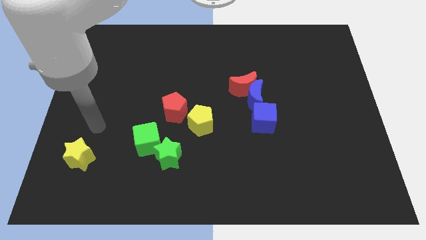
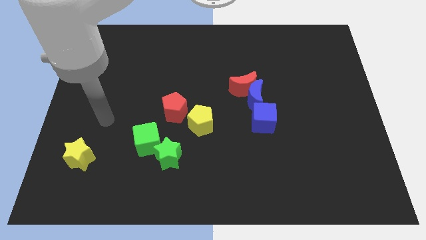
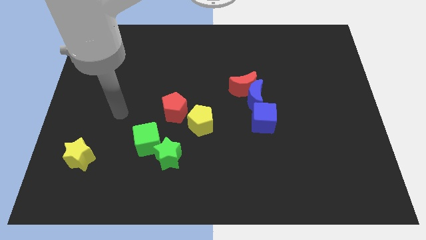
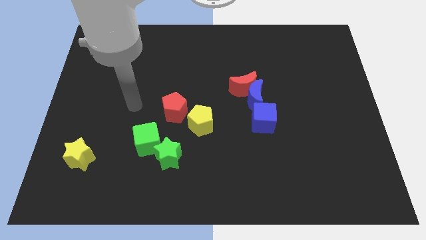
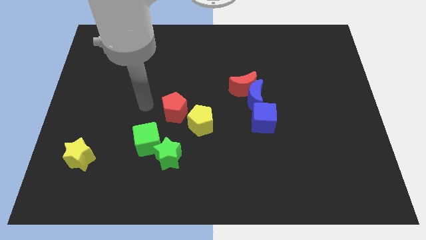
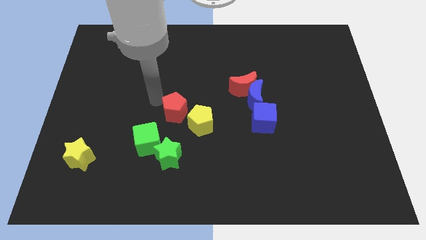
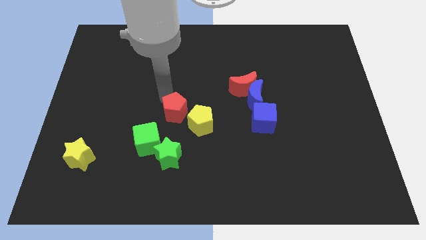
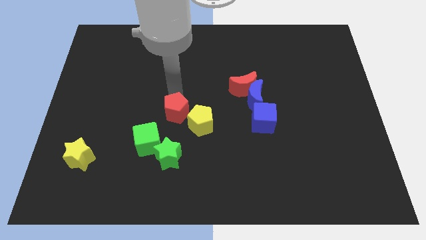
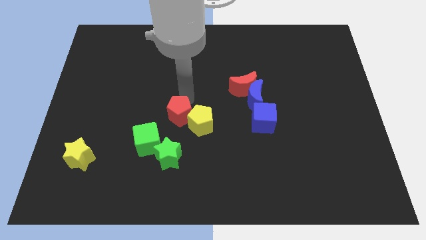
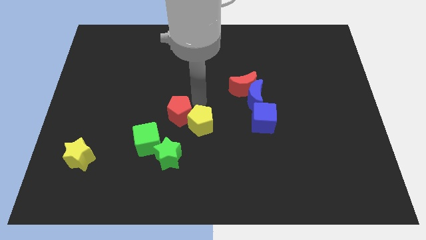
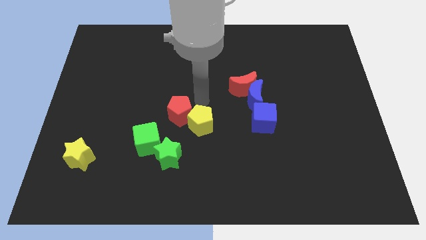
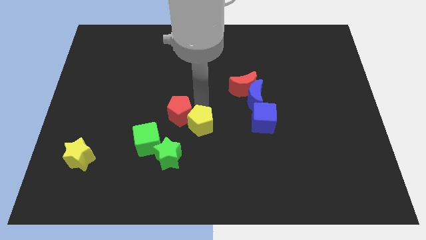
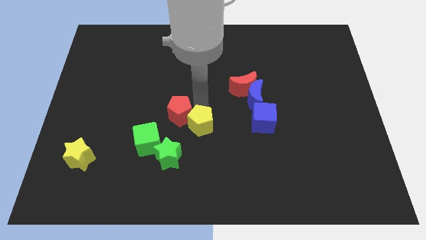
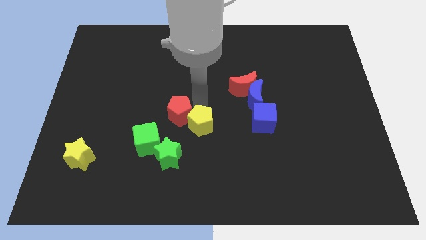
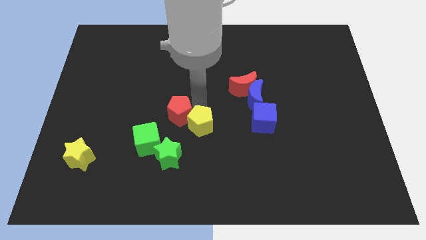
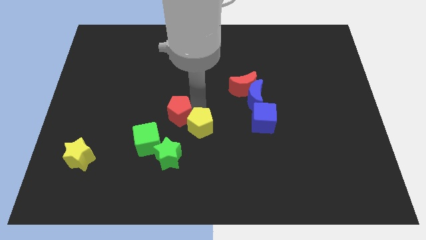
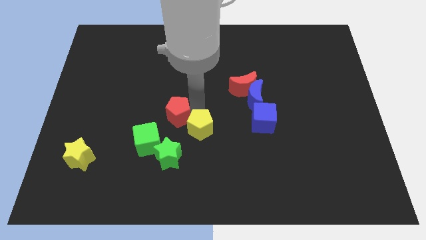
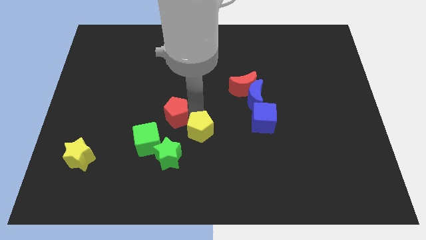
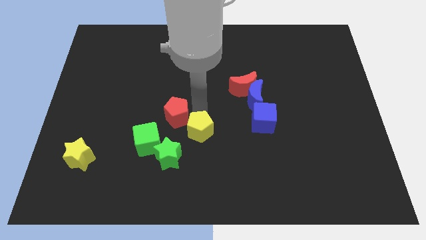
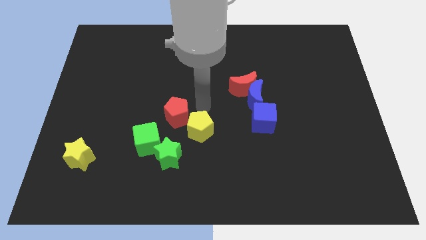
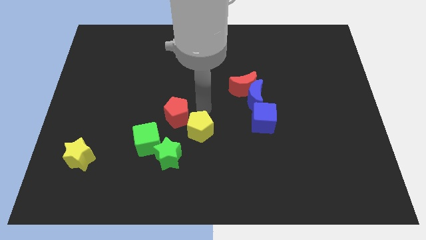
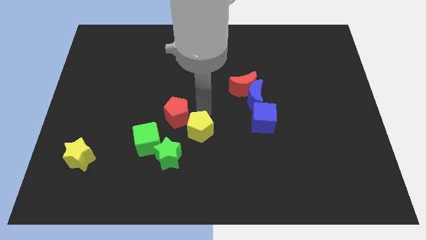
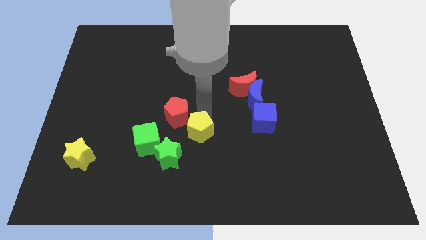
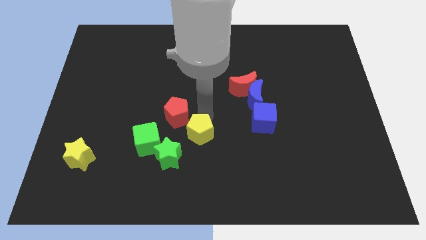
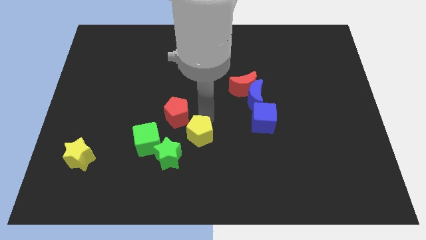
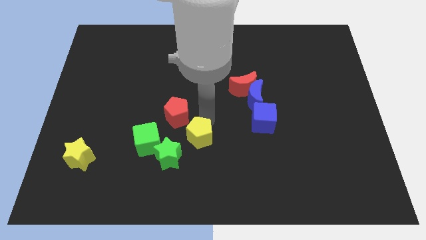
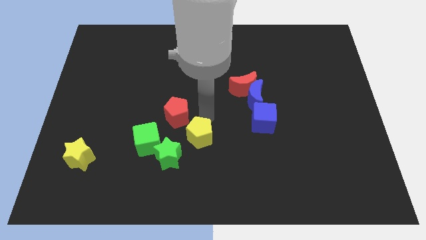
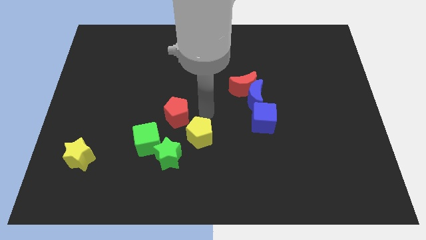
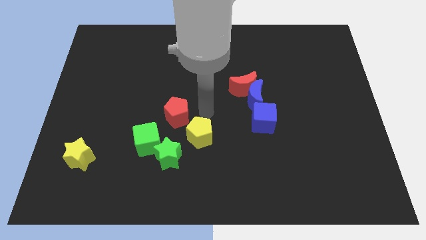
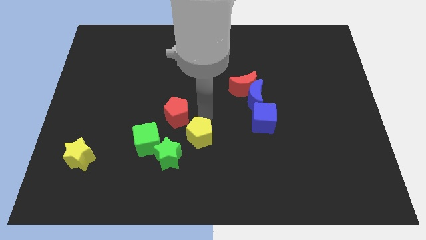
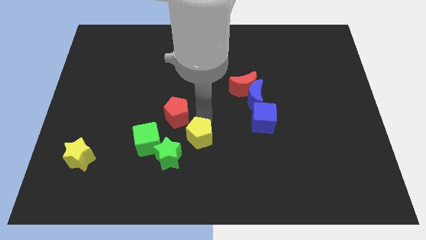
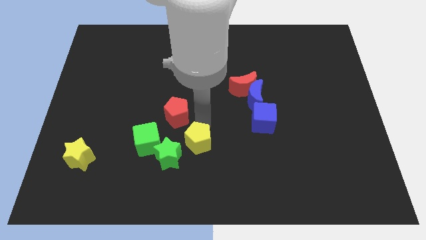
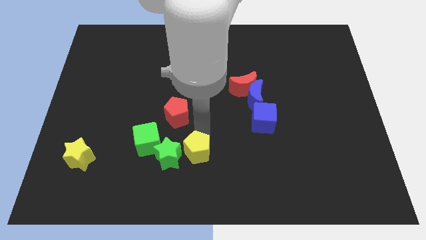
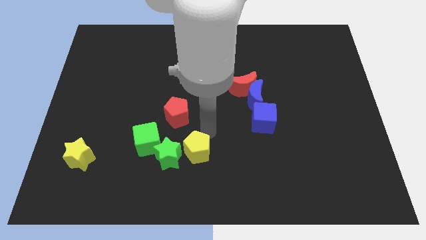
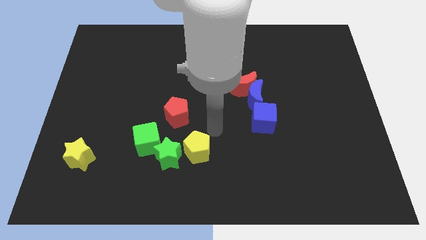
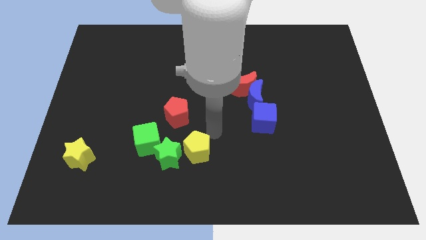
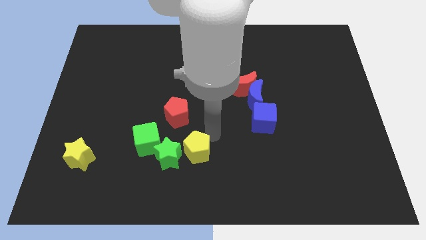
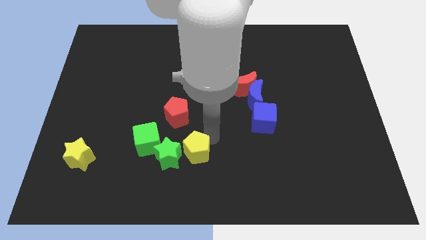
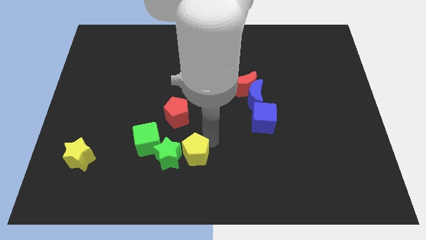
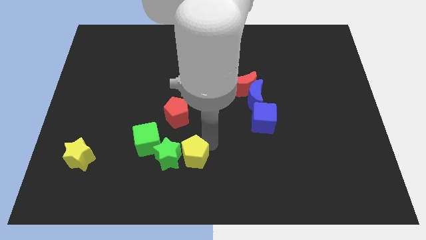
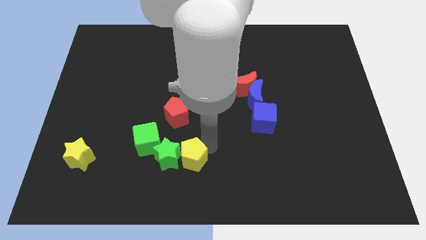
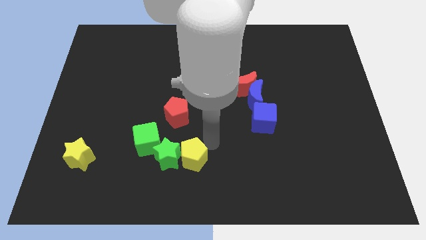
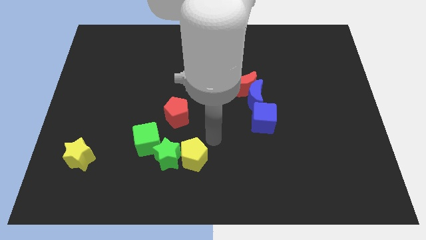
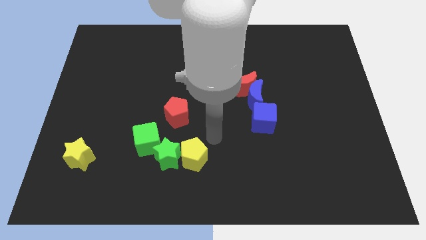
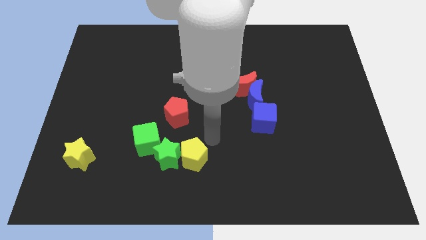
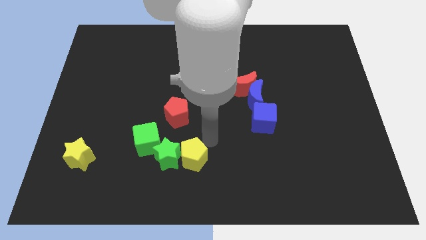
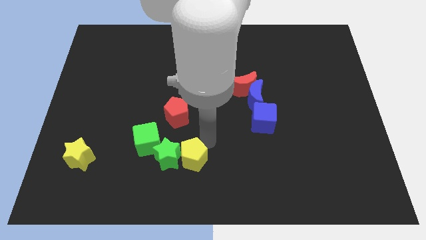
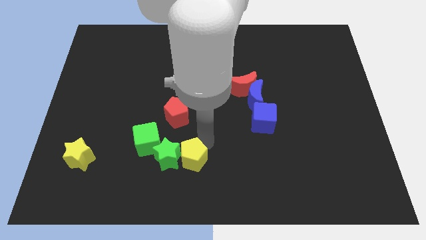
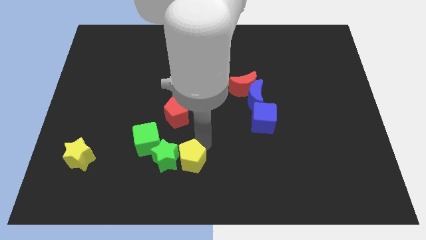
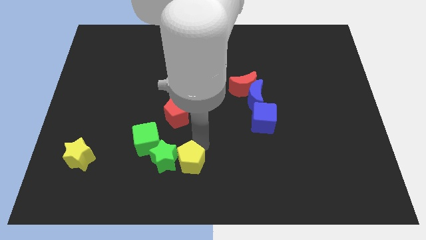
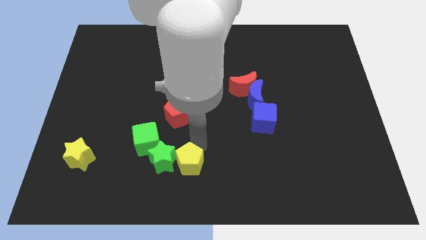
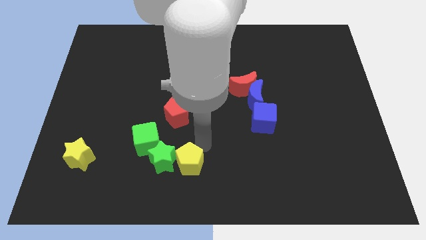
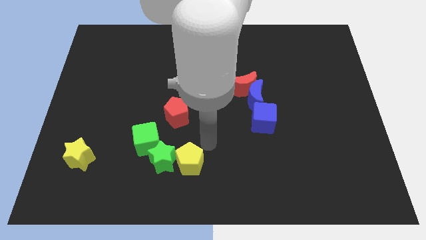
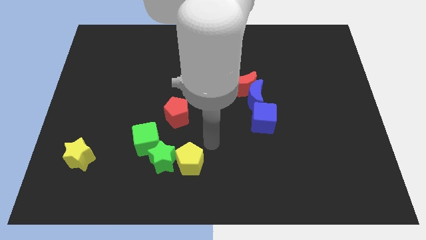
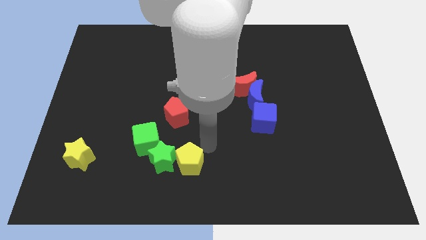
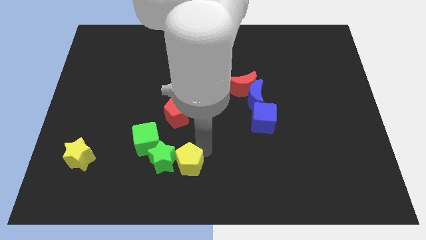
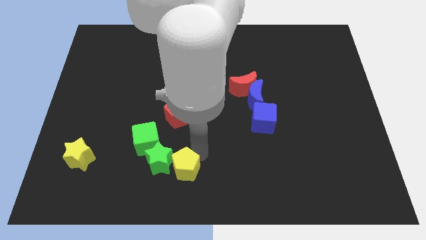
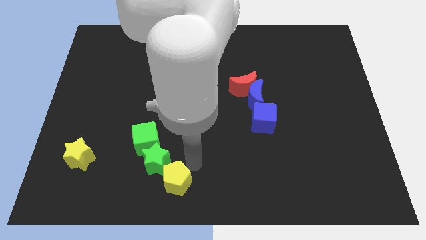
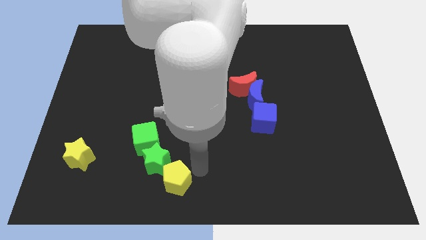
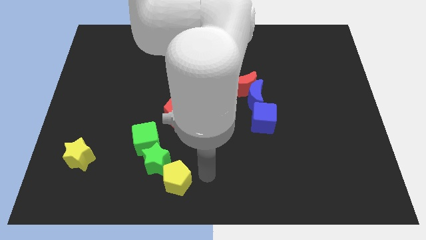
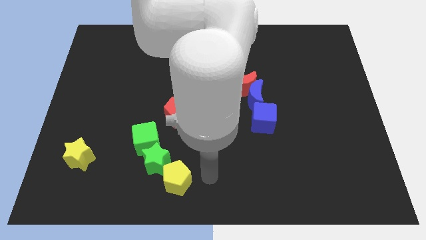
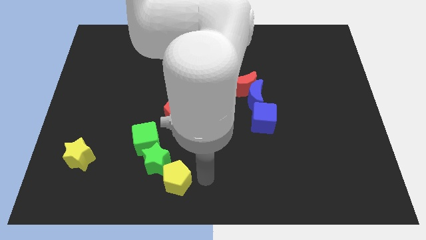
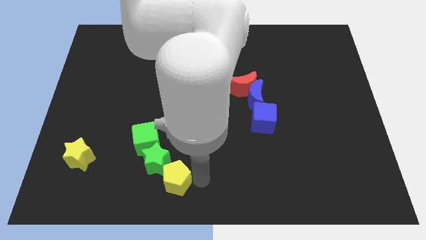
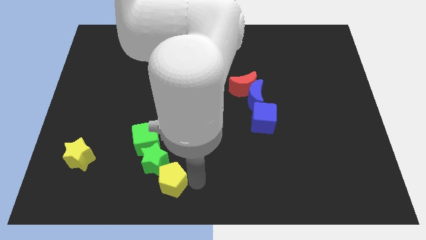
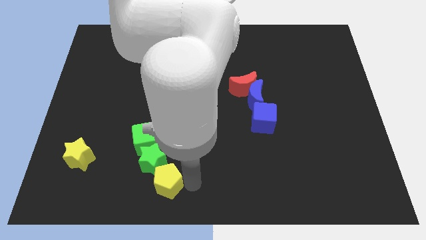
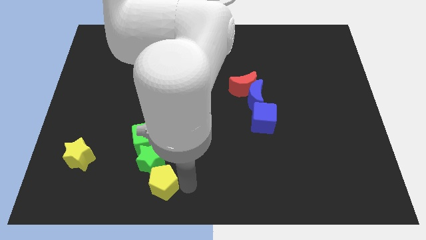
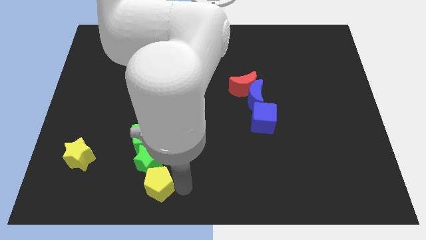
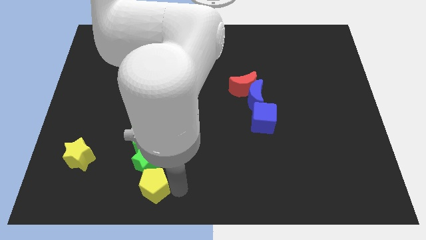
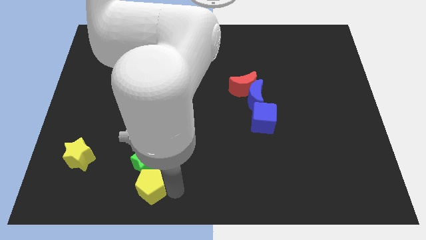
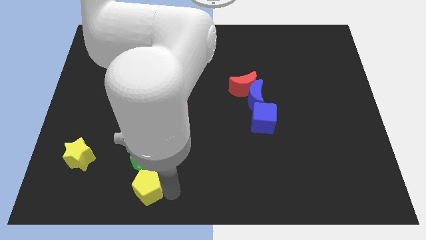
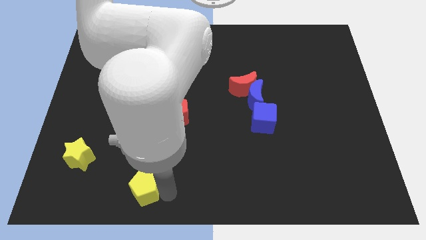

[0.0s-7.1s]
slide the yellow pentagon to the bottom left of the green star

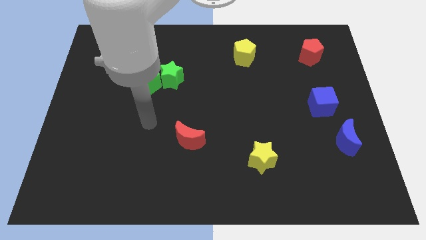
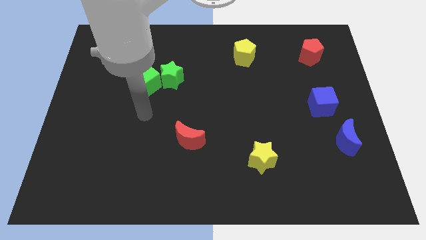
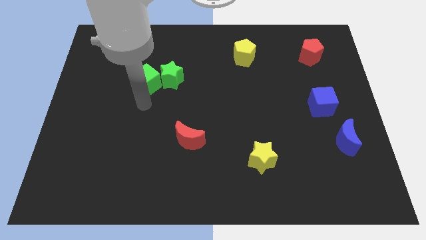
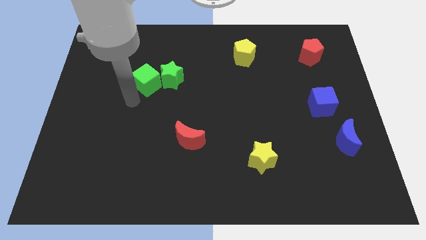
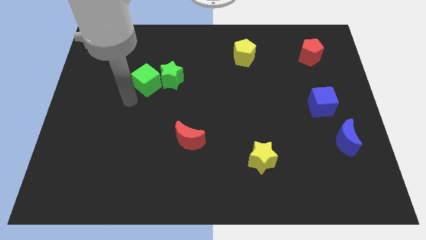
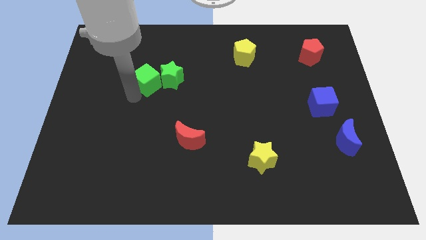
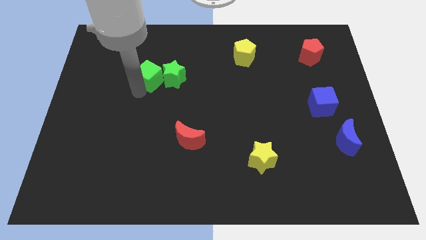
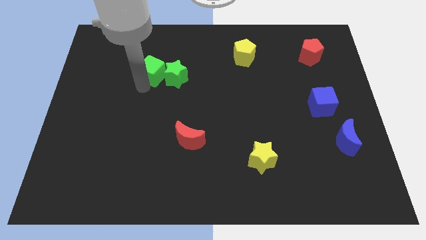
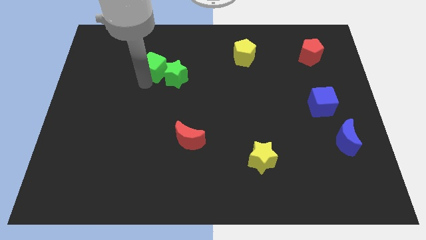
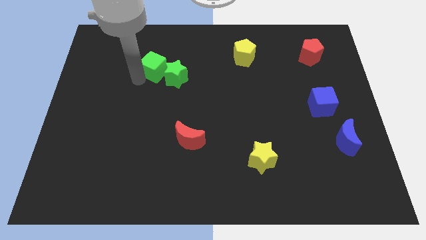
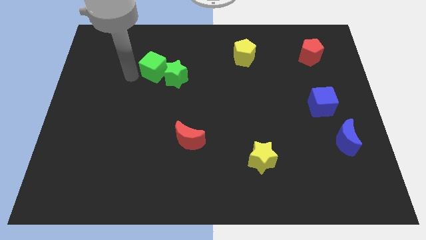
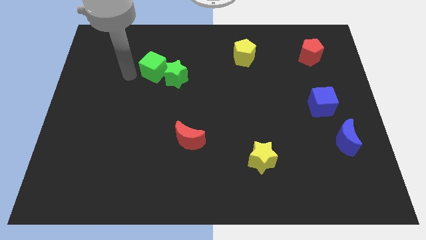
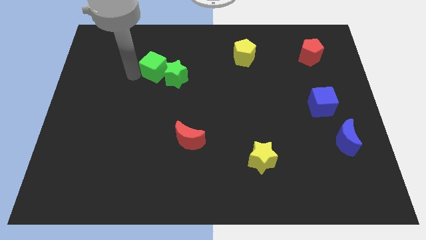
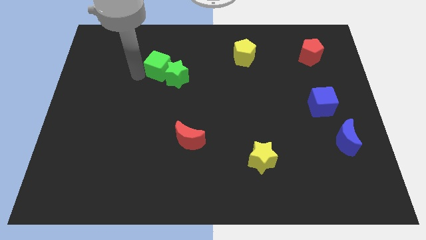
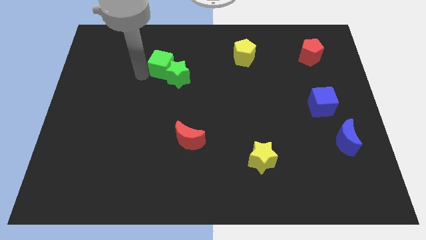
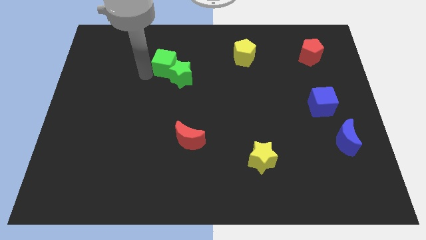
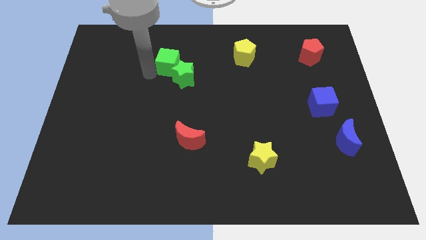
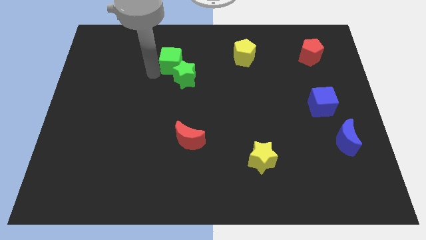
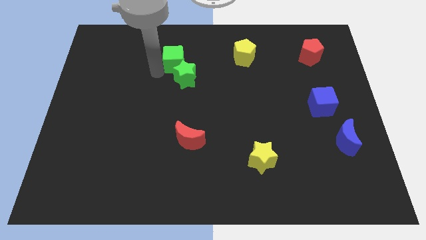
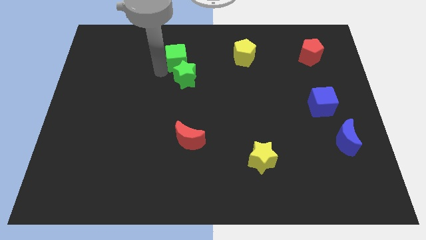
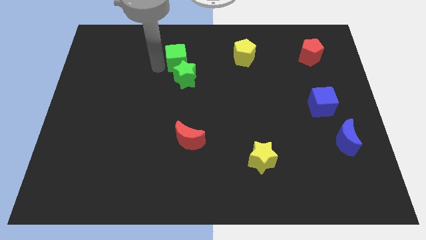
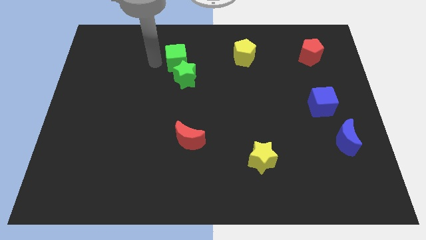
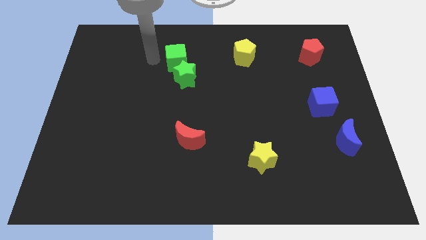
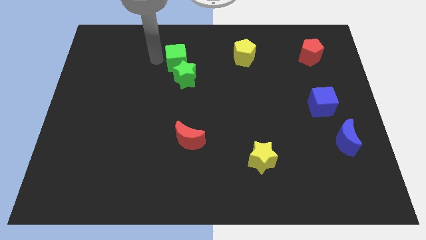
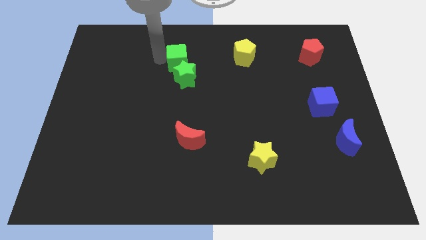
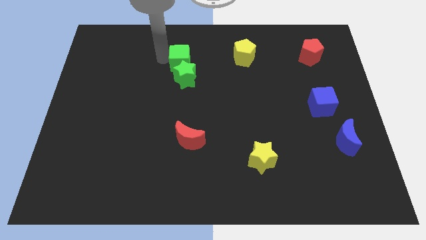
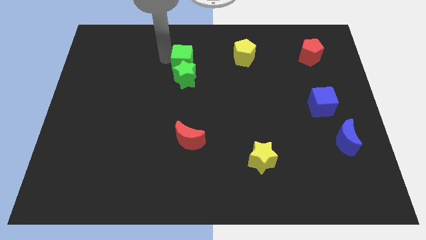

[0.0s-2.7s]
push the green cube to the top right of the green star
